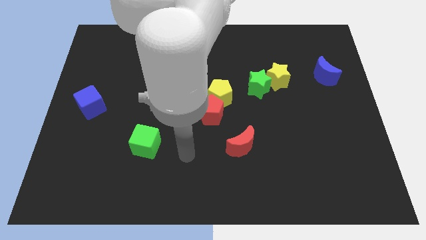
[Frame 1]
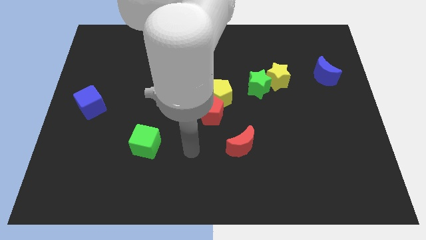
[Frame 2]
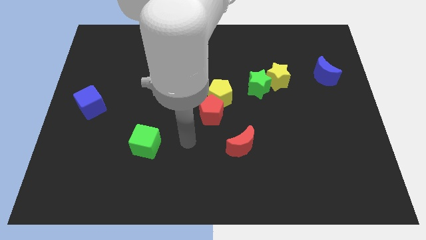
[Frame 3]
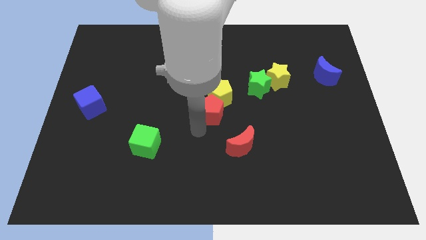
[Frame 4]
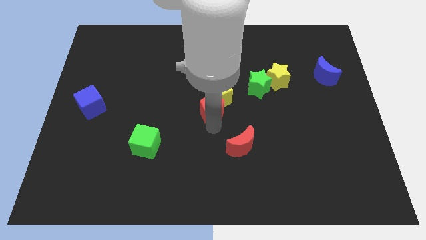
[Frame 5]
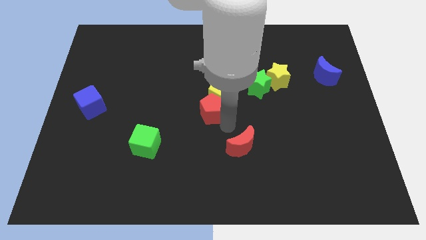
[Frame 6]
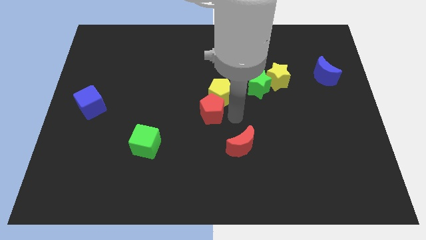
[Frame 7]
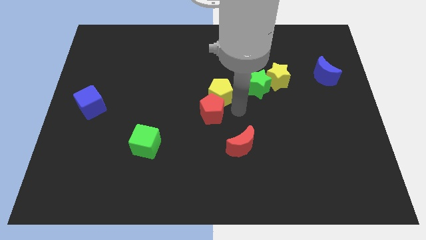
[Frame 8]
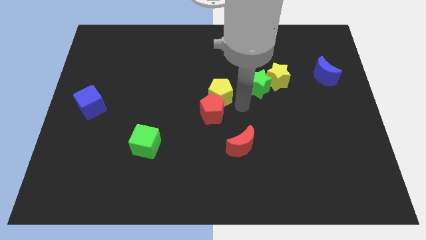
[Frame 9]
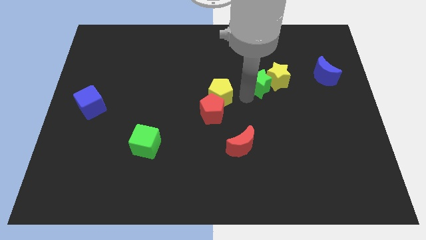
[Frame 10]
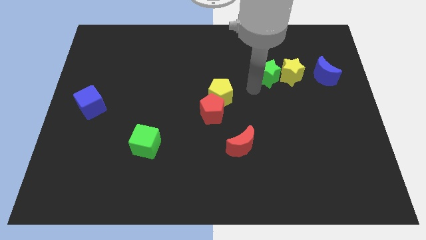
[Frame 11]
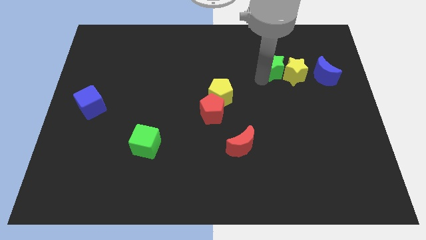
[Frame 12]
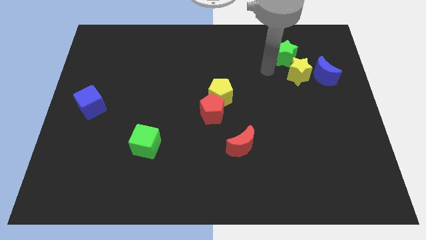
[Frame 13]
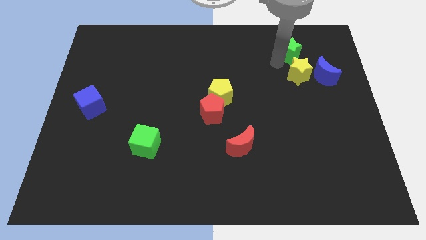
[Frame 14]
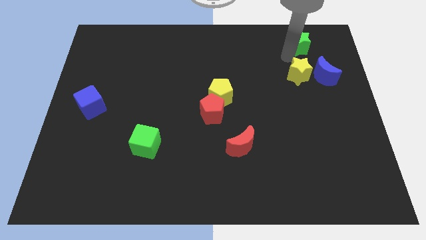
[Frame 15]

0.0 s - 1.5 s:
move the yellow star away from the green star

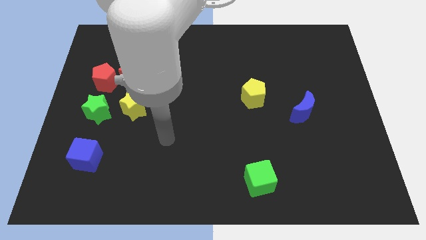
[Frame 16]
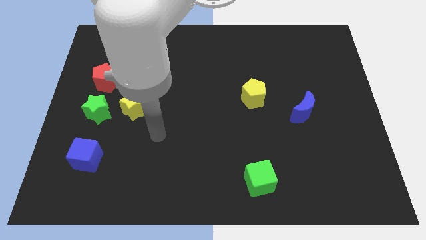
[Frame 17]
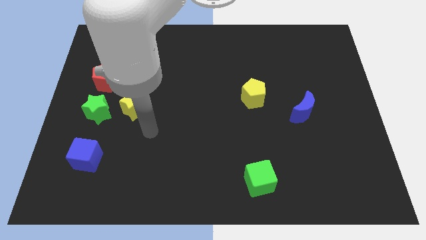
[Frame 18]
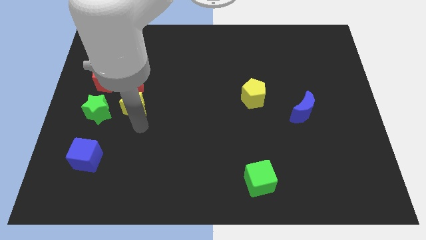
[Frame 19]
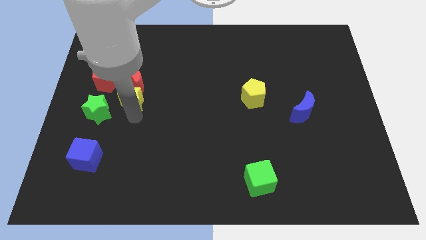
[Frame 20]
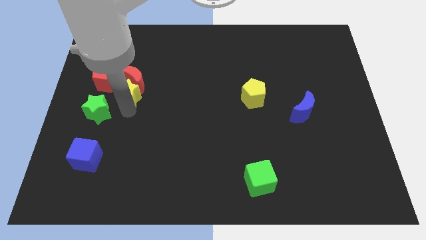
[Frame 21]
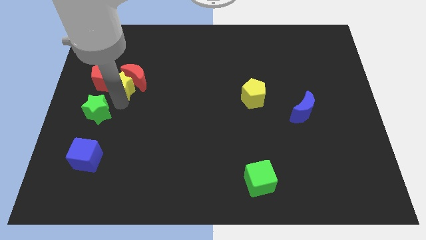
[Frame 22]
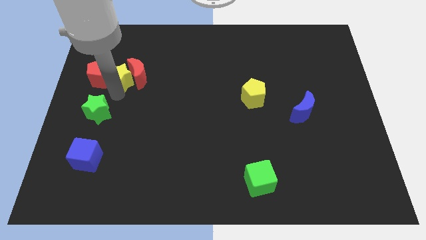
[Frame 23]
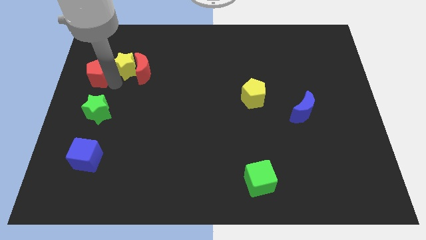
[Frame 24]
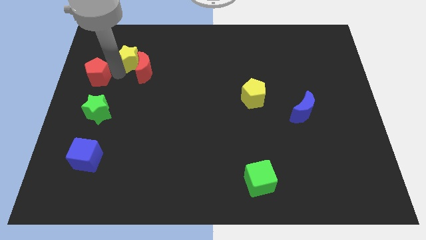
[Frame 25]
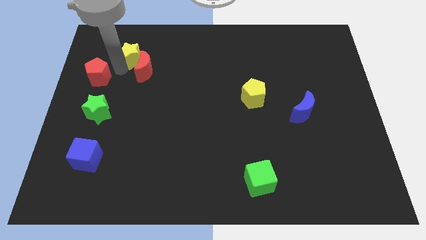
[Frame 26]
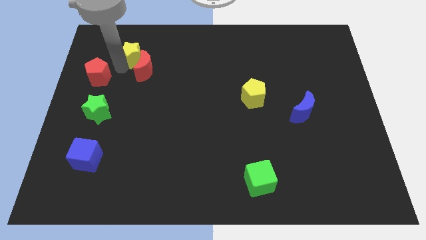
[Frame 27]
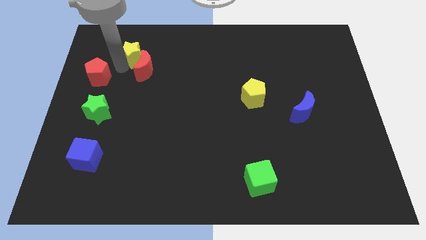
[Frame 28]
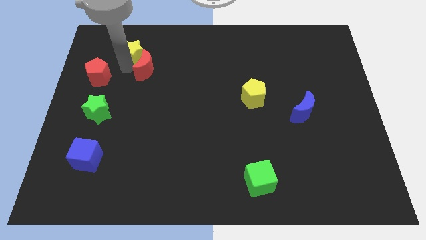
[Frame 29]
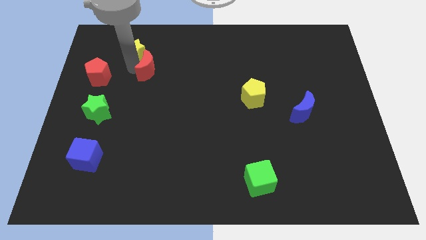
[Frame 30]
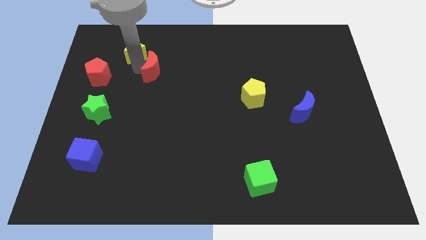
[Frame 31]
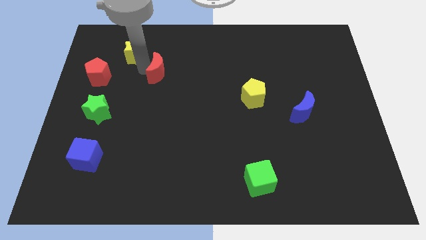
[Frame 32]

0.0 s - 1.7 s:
pull the red moon apart from the red pentagon and yellow star

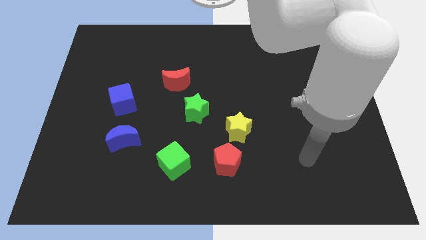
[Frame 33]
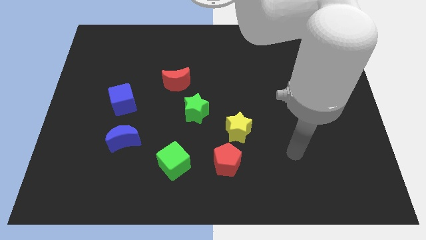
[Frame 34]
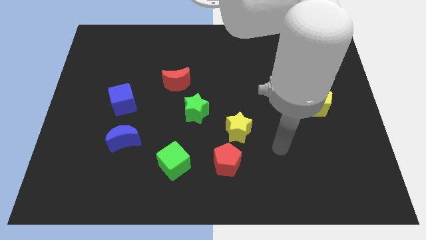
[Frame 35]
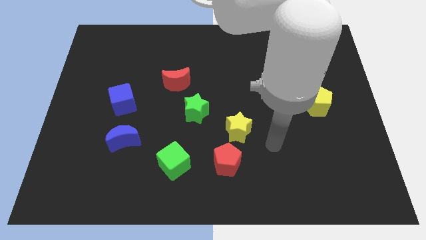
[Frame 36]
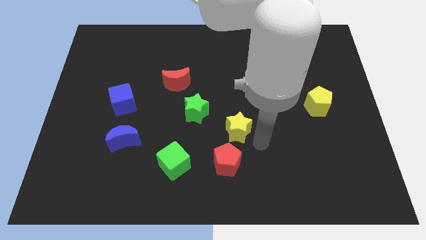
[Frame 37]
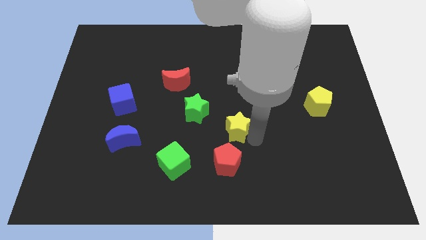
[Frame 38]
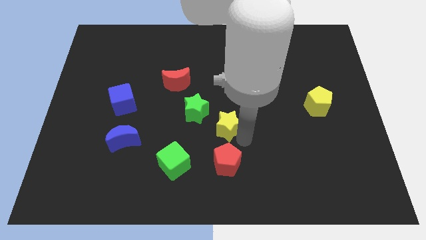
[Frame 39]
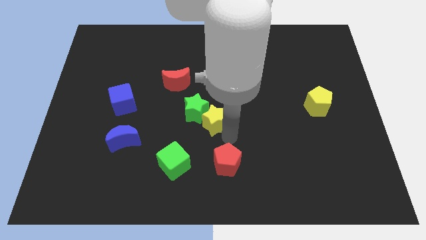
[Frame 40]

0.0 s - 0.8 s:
move the red pentagon away from the yellow star

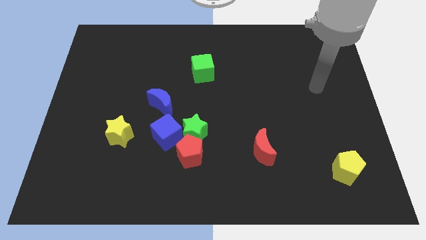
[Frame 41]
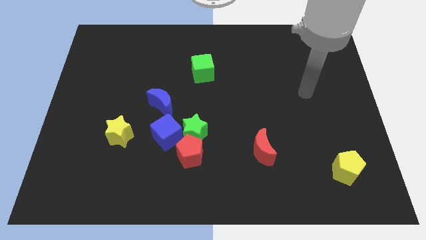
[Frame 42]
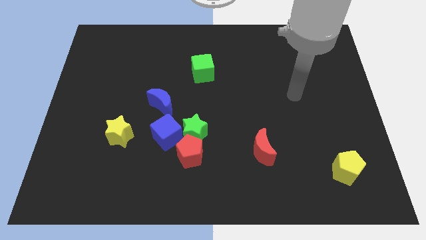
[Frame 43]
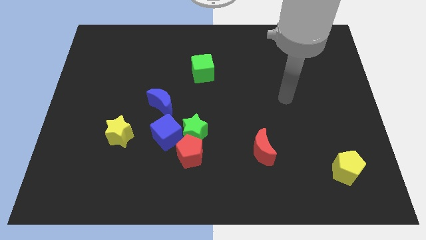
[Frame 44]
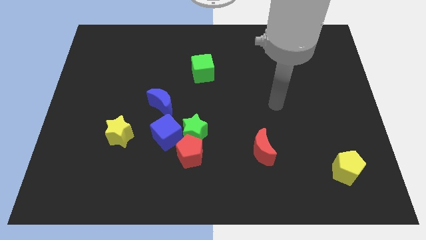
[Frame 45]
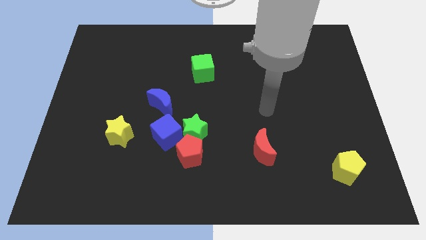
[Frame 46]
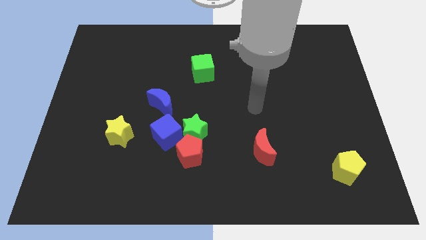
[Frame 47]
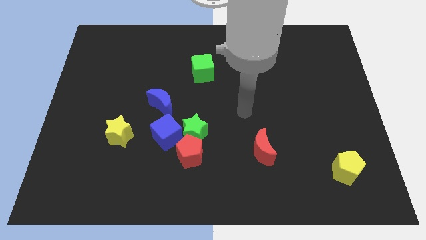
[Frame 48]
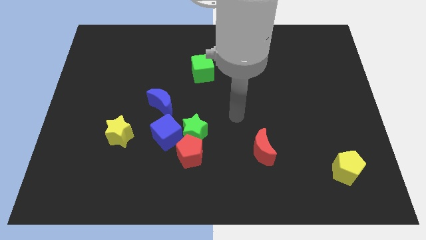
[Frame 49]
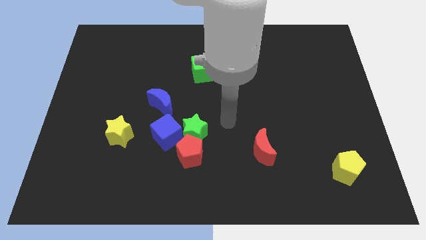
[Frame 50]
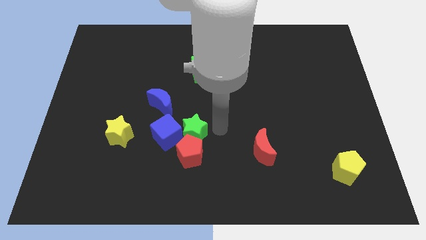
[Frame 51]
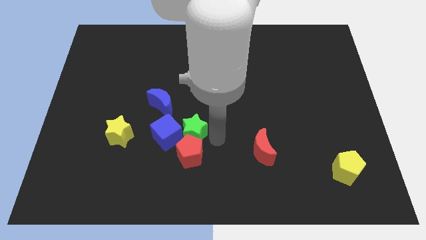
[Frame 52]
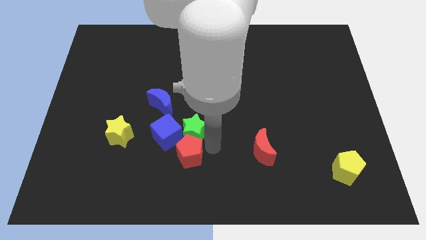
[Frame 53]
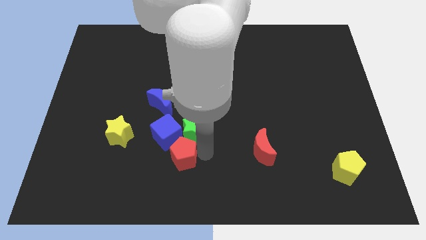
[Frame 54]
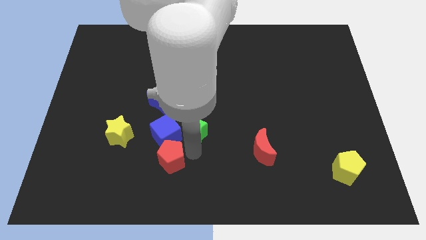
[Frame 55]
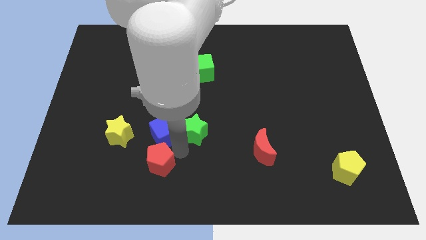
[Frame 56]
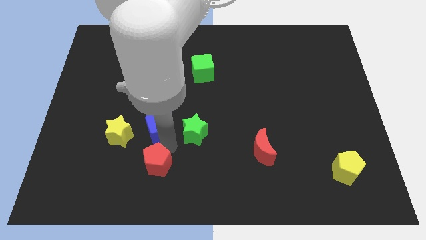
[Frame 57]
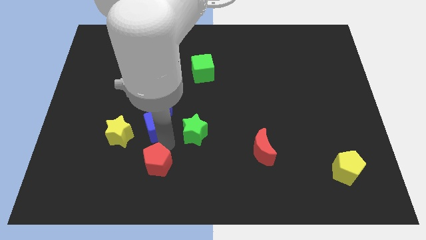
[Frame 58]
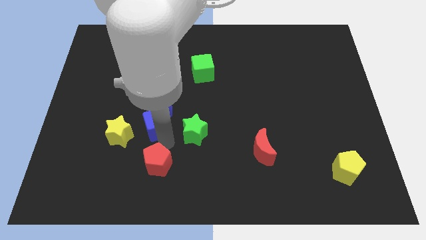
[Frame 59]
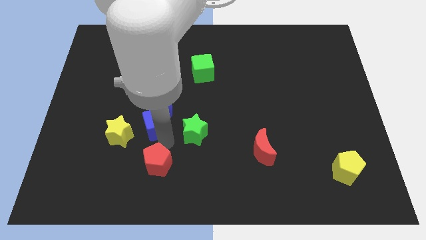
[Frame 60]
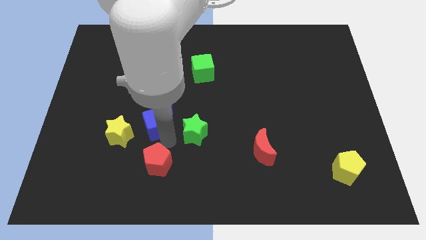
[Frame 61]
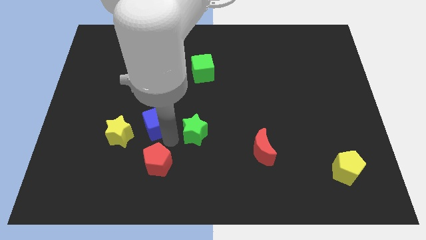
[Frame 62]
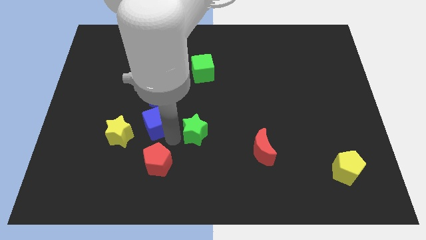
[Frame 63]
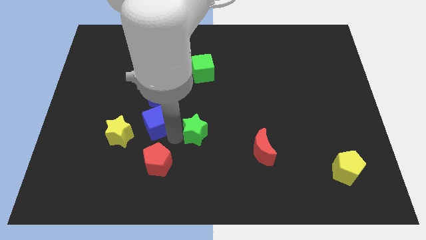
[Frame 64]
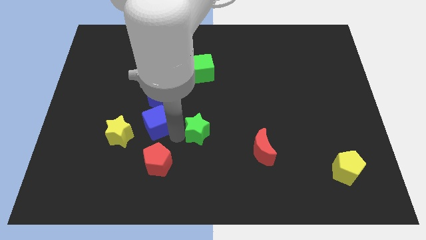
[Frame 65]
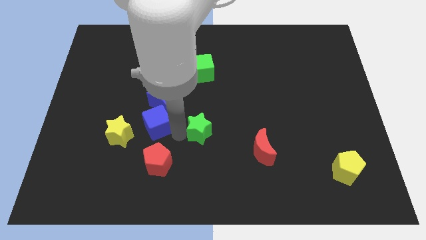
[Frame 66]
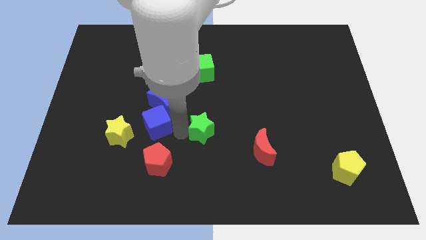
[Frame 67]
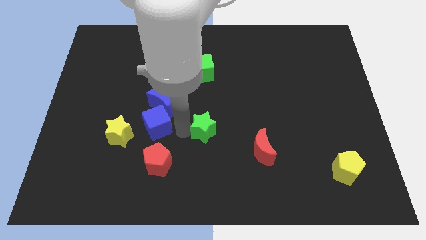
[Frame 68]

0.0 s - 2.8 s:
pull the green star apart from the red pentagon and blue cube

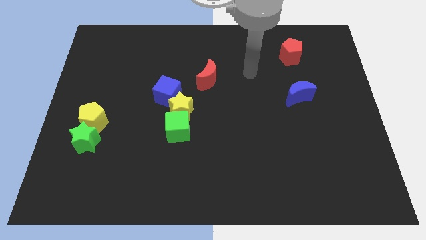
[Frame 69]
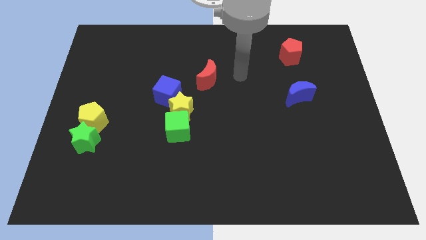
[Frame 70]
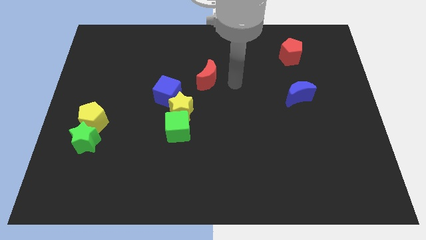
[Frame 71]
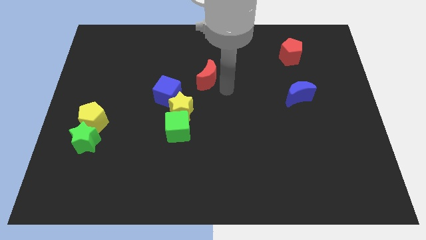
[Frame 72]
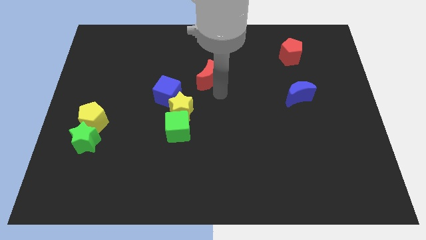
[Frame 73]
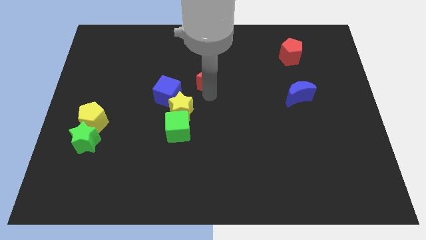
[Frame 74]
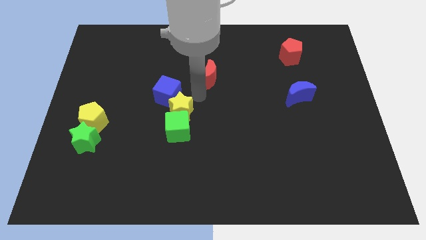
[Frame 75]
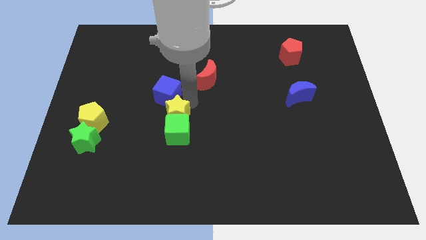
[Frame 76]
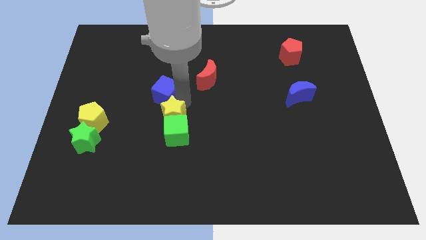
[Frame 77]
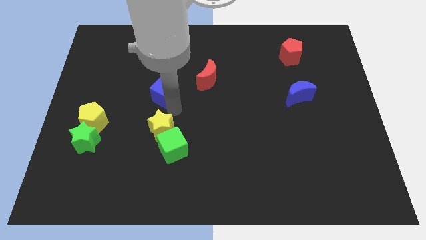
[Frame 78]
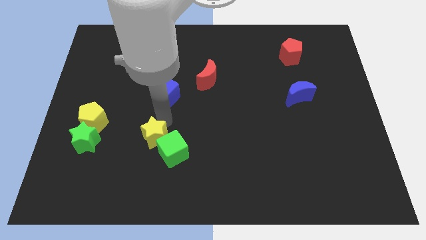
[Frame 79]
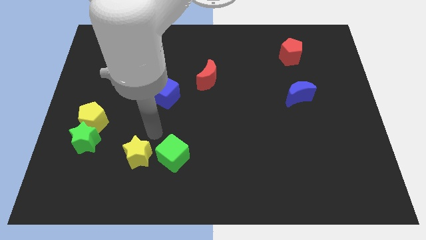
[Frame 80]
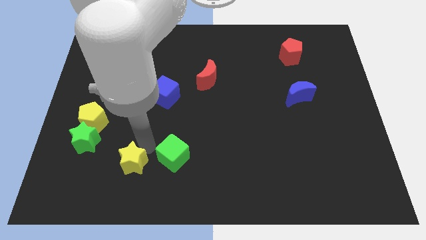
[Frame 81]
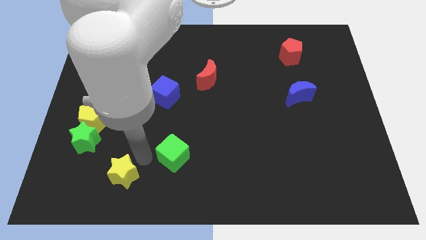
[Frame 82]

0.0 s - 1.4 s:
move the green cube away from the yellow star

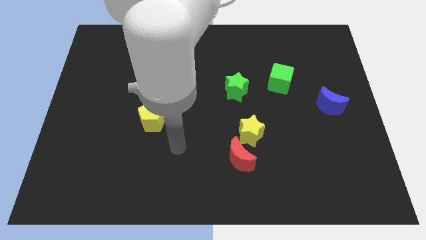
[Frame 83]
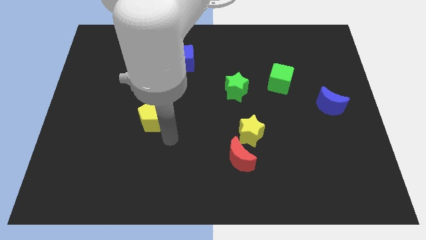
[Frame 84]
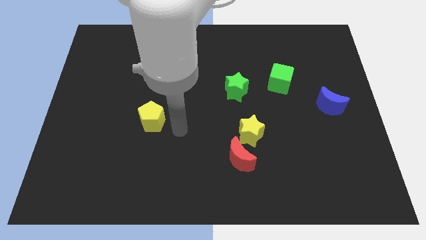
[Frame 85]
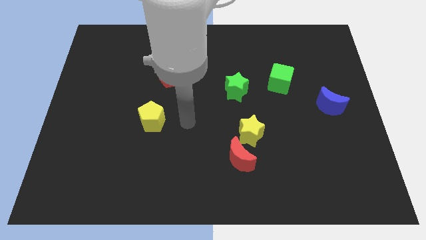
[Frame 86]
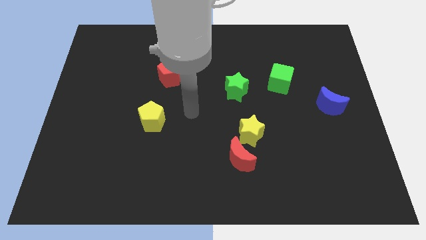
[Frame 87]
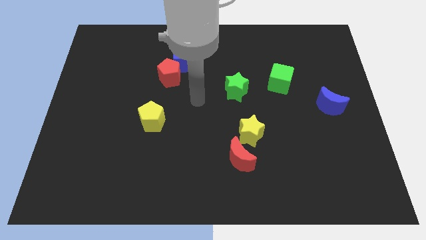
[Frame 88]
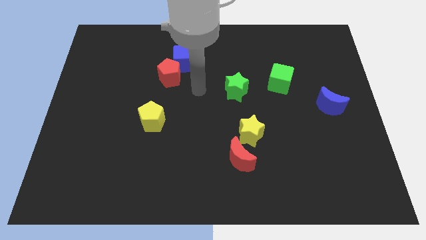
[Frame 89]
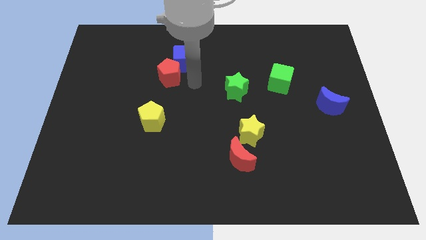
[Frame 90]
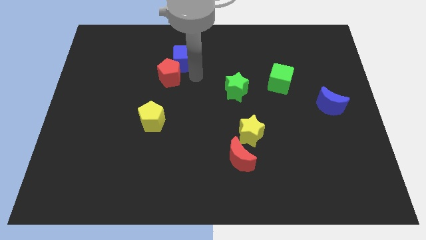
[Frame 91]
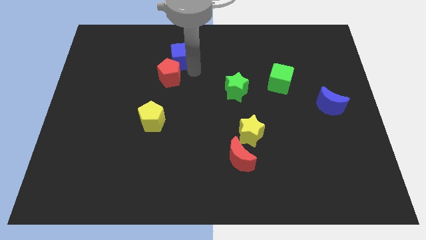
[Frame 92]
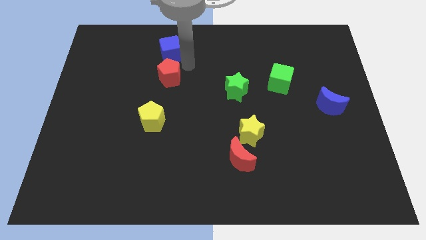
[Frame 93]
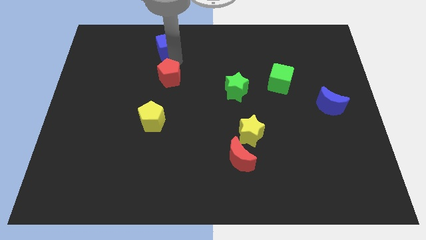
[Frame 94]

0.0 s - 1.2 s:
pull the red pentagon apart from the blue cube

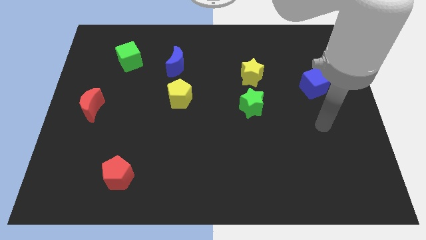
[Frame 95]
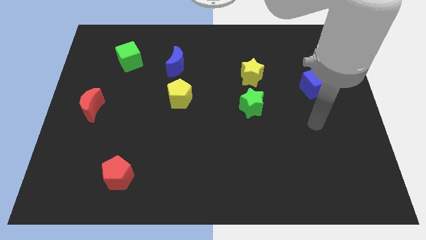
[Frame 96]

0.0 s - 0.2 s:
move the green star away from the yellow star
